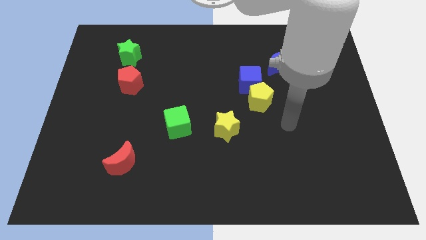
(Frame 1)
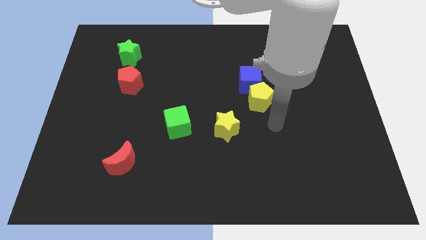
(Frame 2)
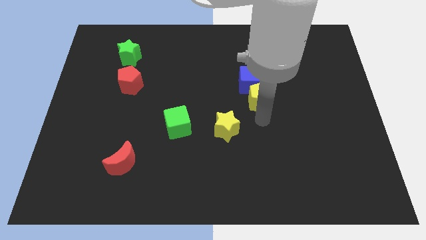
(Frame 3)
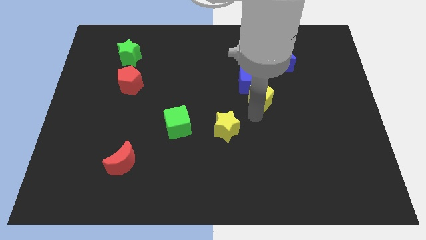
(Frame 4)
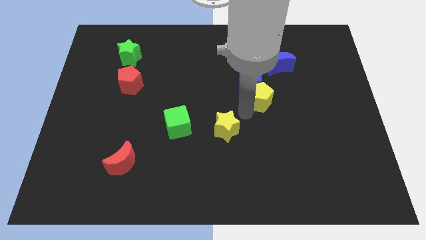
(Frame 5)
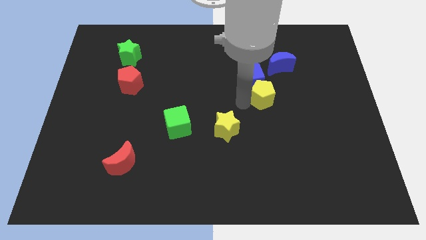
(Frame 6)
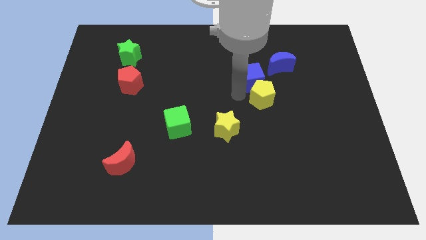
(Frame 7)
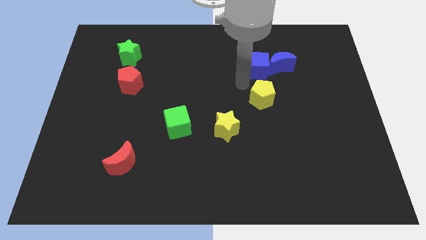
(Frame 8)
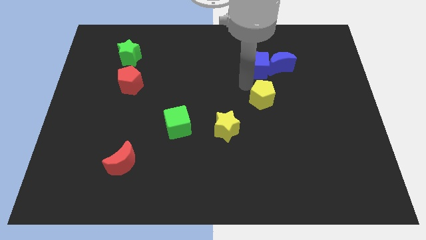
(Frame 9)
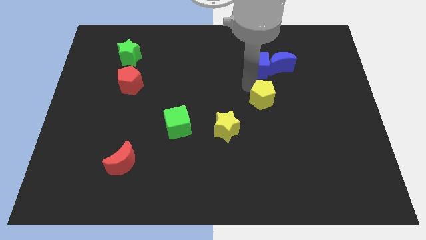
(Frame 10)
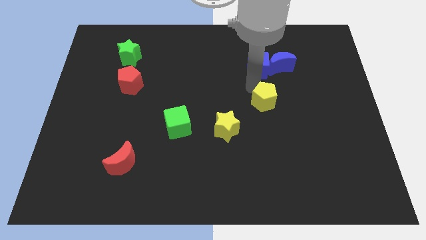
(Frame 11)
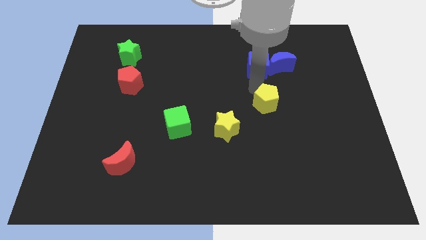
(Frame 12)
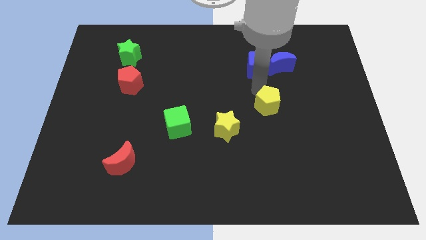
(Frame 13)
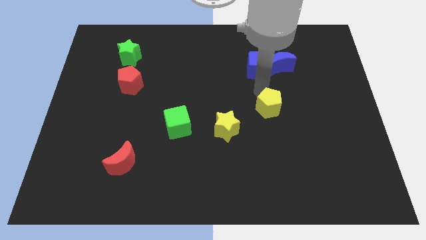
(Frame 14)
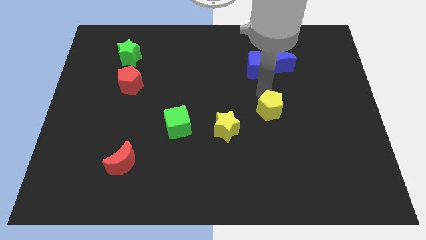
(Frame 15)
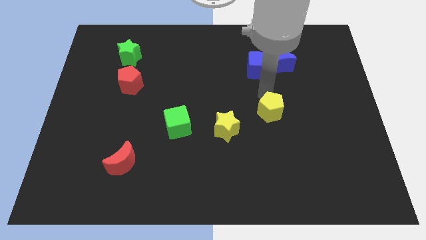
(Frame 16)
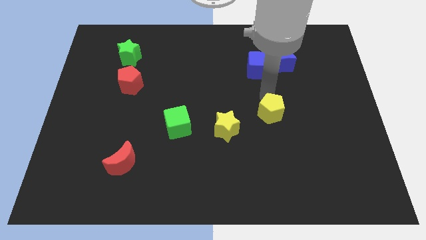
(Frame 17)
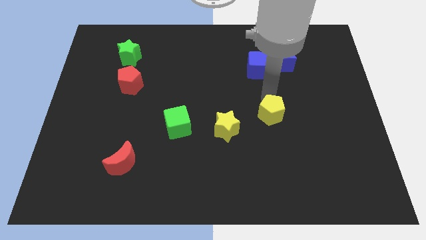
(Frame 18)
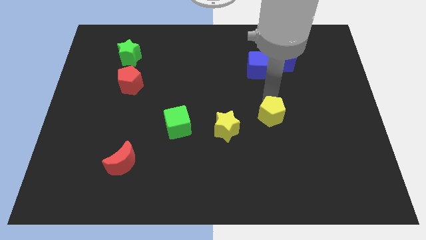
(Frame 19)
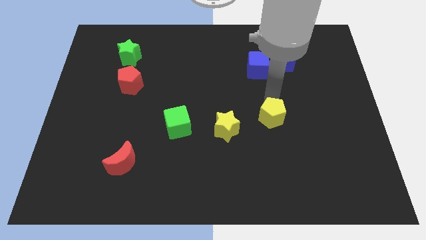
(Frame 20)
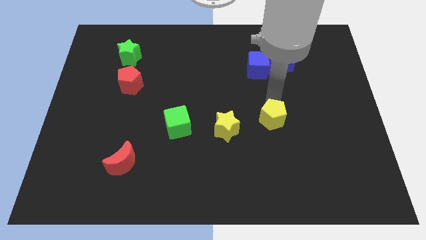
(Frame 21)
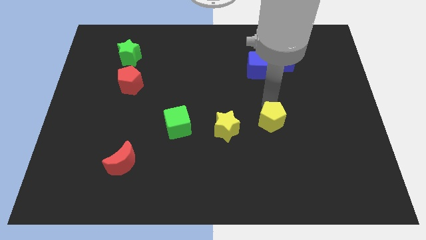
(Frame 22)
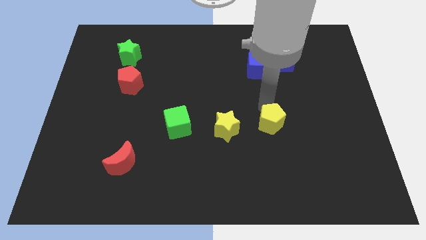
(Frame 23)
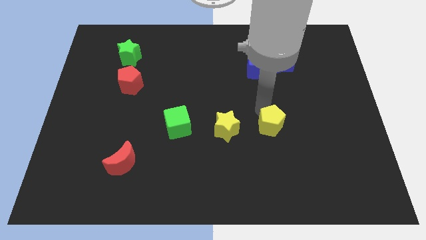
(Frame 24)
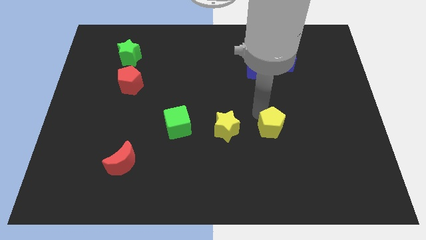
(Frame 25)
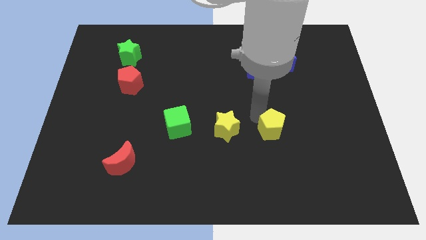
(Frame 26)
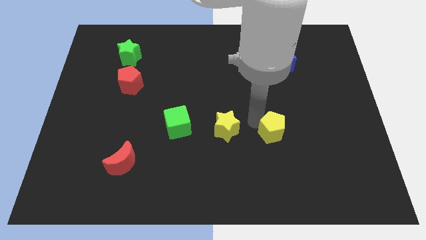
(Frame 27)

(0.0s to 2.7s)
slightly push the yellow pentagon diagonally downwards and right

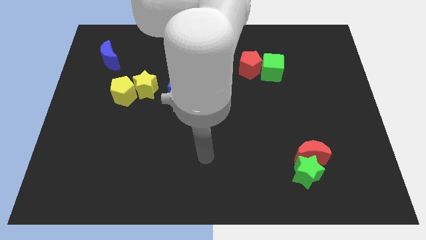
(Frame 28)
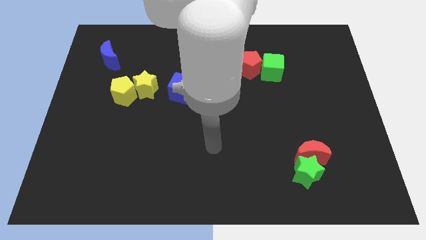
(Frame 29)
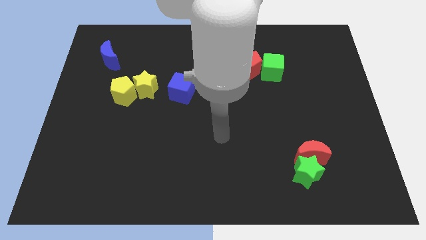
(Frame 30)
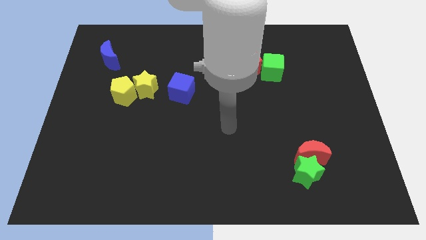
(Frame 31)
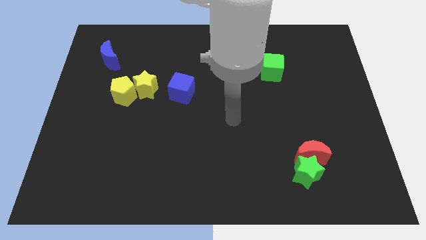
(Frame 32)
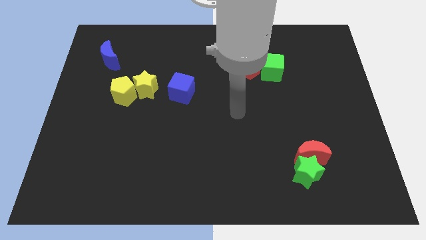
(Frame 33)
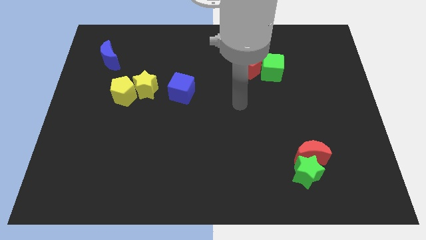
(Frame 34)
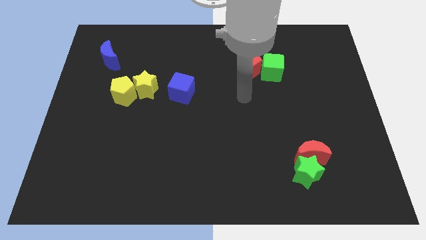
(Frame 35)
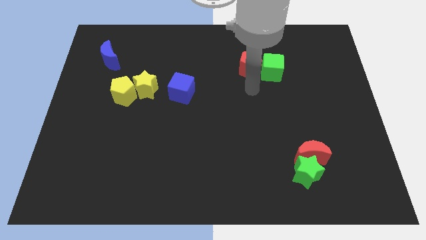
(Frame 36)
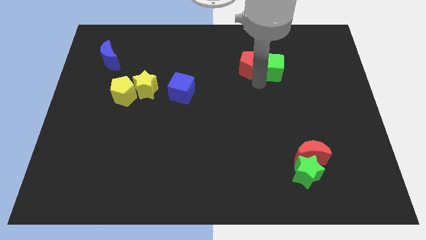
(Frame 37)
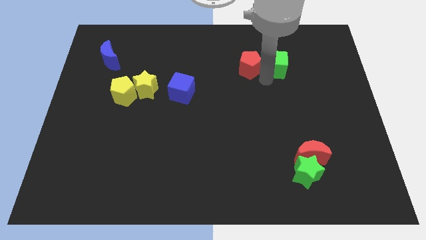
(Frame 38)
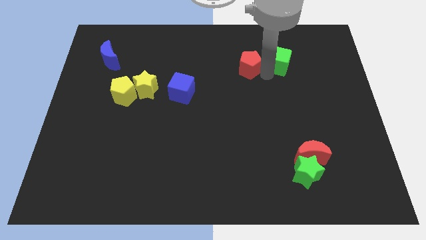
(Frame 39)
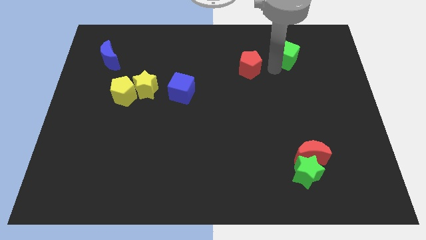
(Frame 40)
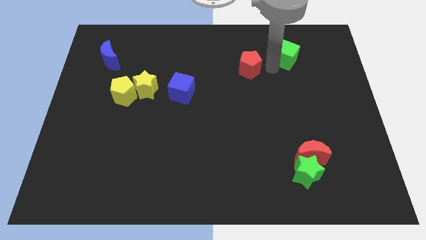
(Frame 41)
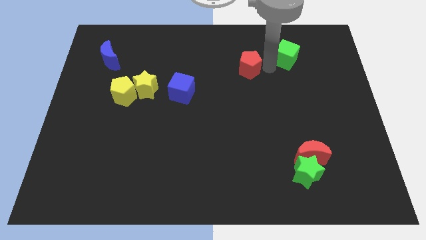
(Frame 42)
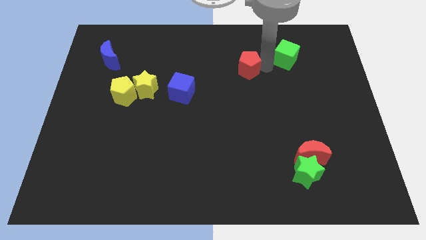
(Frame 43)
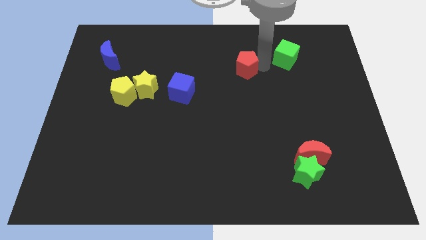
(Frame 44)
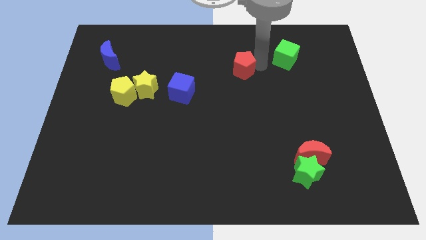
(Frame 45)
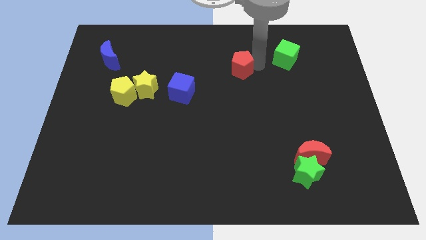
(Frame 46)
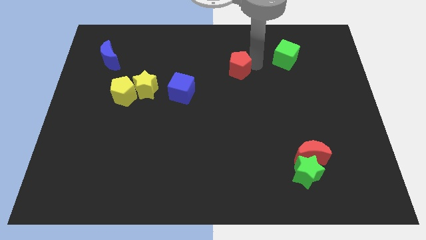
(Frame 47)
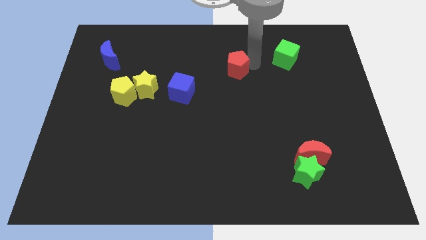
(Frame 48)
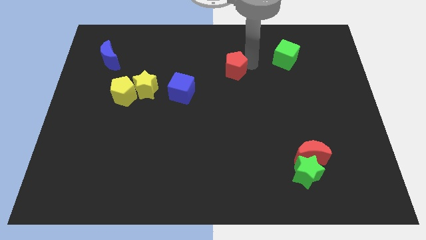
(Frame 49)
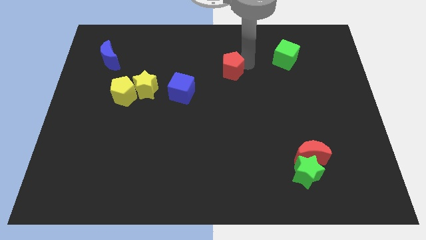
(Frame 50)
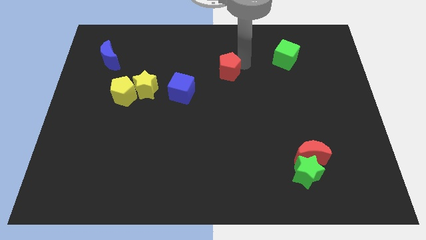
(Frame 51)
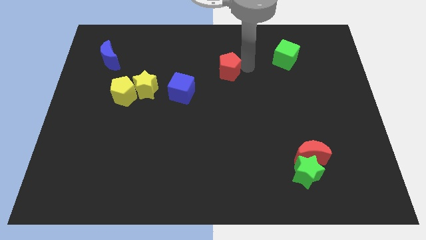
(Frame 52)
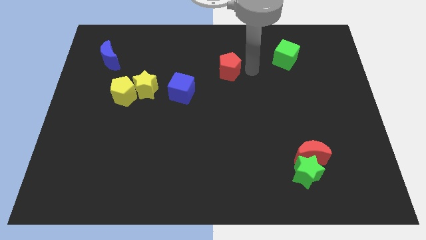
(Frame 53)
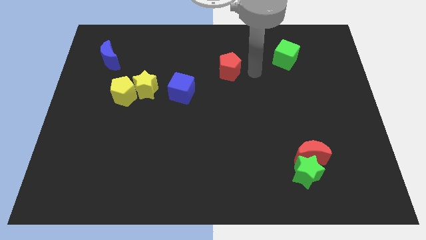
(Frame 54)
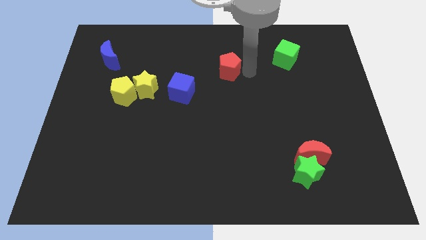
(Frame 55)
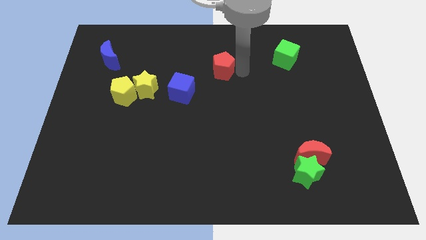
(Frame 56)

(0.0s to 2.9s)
move the red pentagon a little left

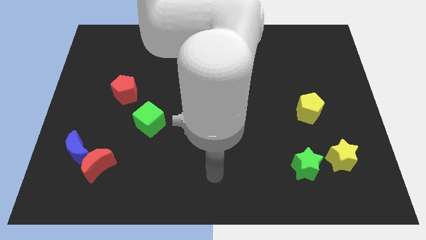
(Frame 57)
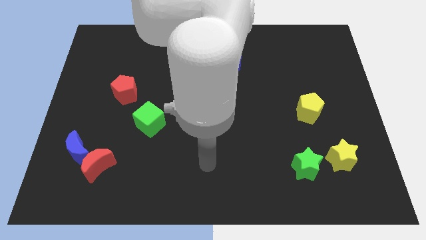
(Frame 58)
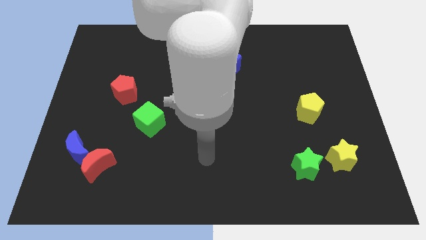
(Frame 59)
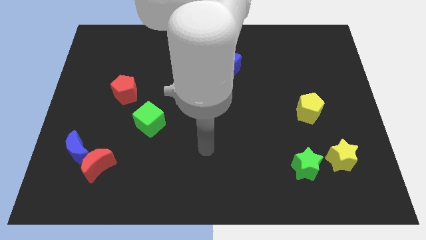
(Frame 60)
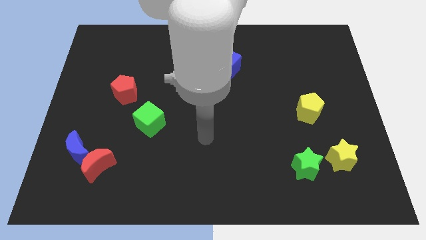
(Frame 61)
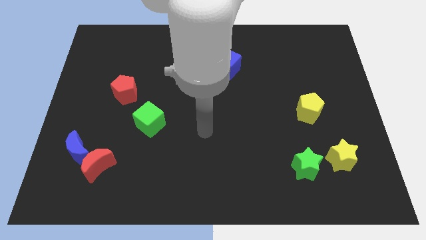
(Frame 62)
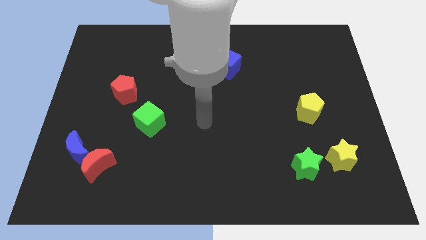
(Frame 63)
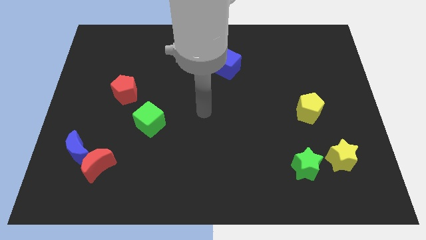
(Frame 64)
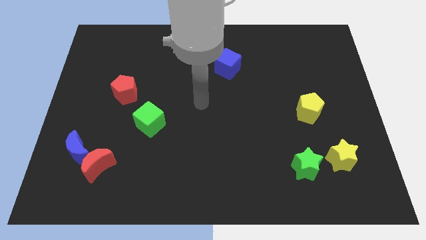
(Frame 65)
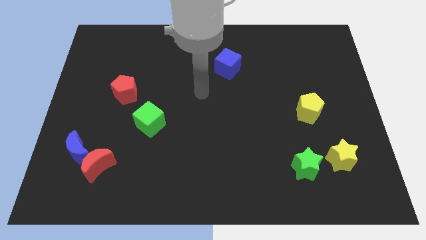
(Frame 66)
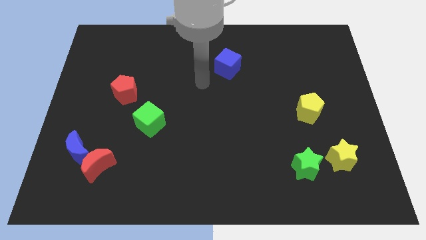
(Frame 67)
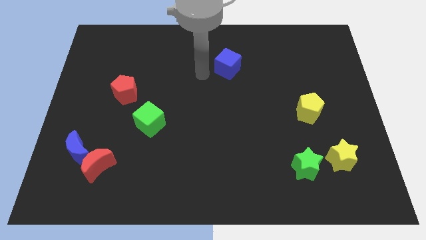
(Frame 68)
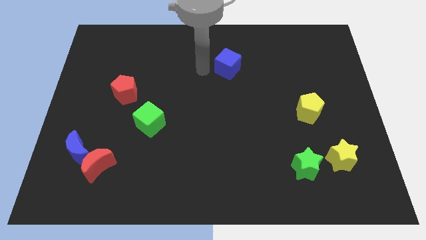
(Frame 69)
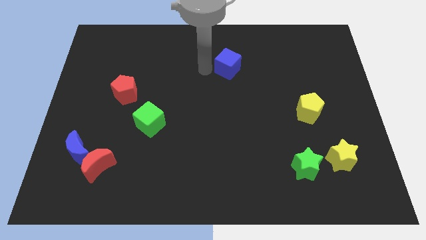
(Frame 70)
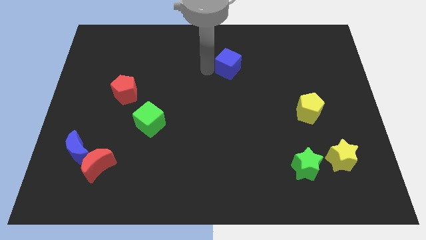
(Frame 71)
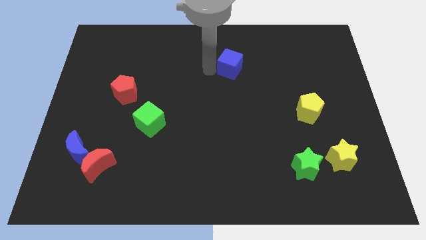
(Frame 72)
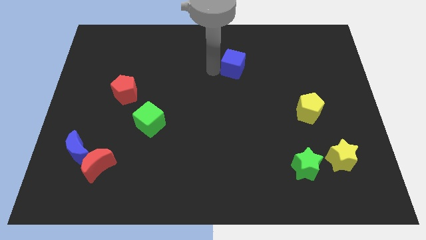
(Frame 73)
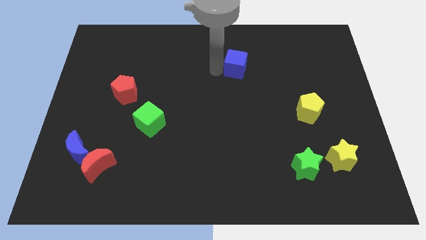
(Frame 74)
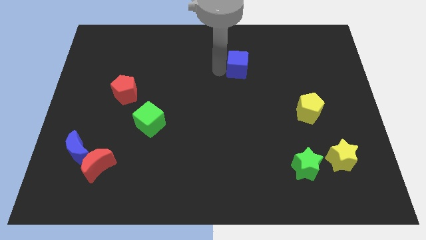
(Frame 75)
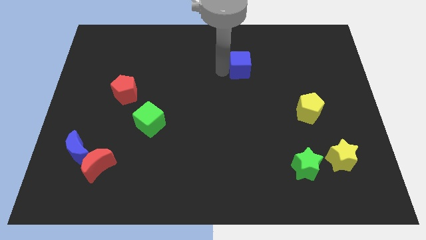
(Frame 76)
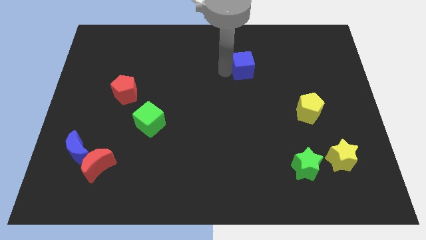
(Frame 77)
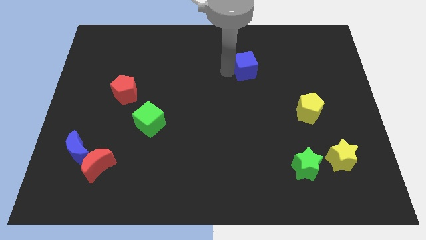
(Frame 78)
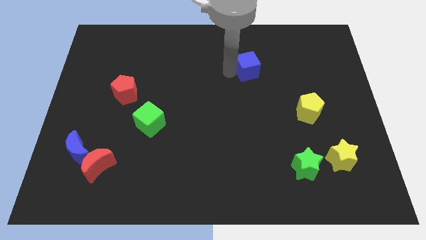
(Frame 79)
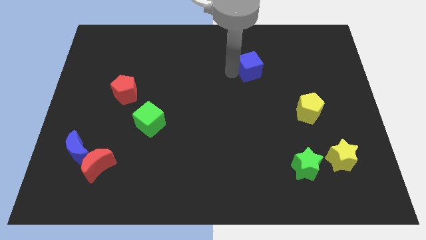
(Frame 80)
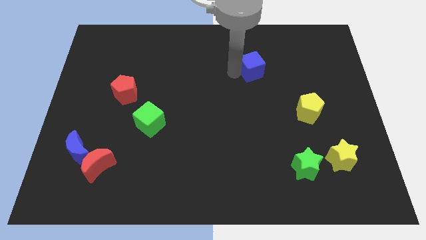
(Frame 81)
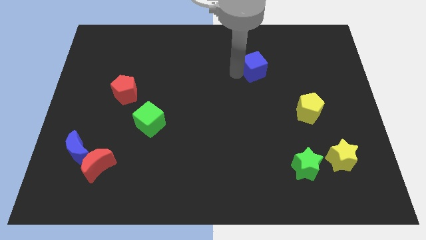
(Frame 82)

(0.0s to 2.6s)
slide the blue cube right somewhat
